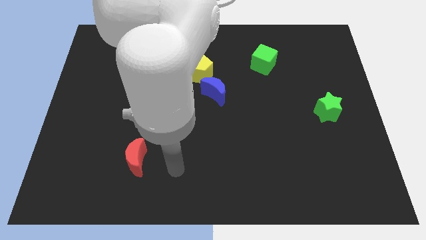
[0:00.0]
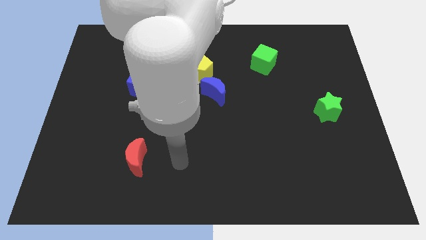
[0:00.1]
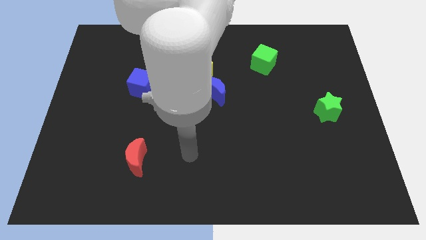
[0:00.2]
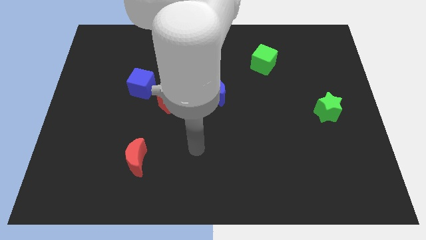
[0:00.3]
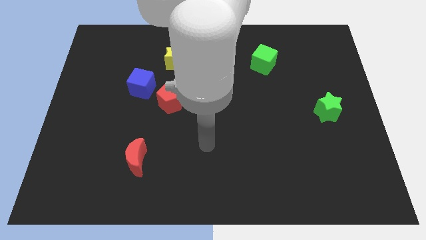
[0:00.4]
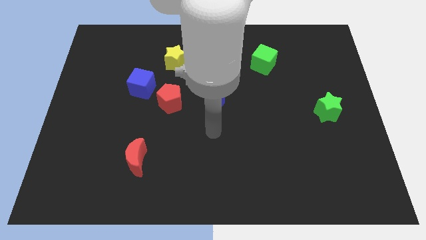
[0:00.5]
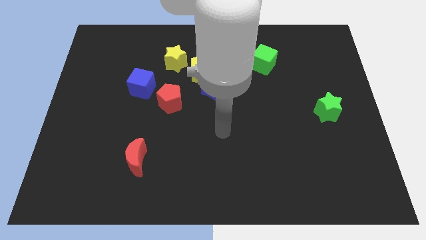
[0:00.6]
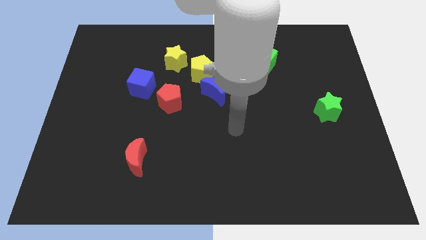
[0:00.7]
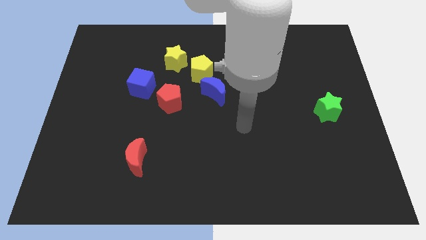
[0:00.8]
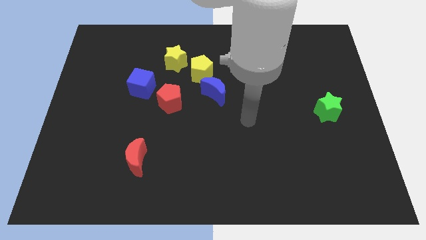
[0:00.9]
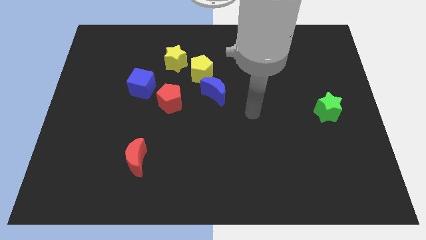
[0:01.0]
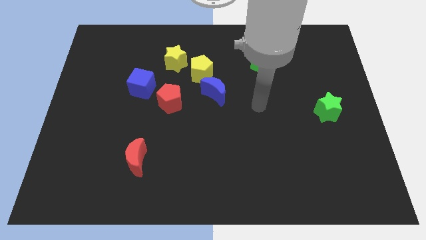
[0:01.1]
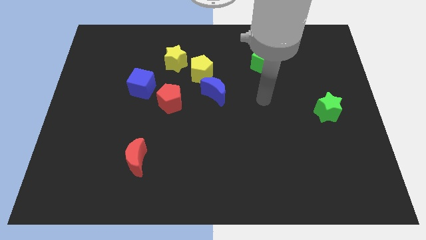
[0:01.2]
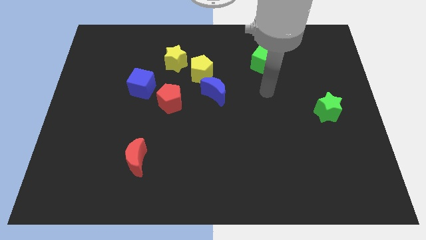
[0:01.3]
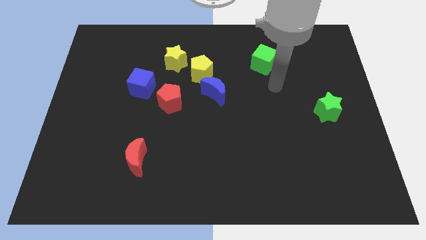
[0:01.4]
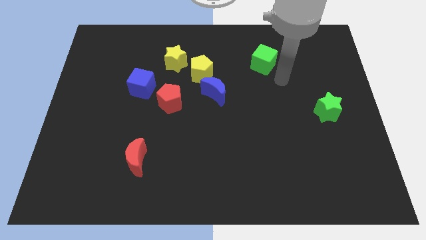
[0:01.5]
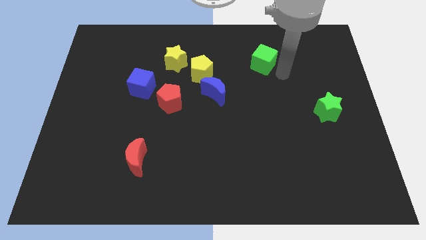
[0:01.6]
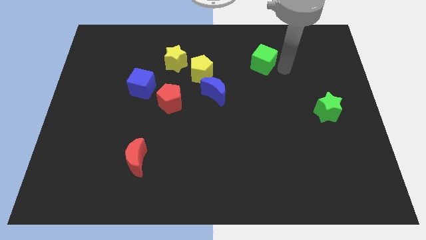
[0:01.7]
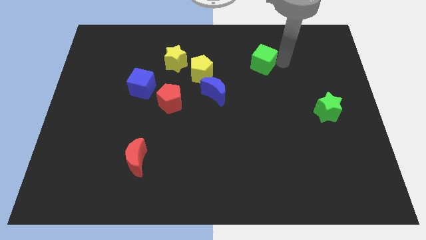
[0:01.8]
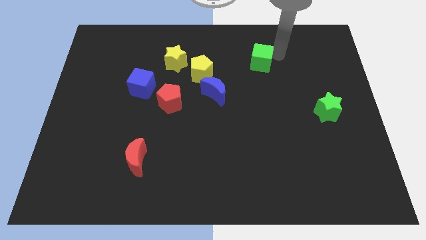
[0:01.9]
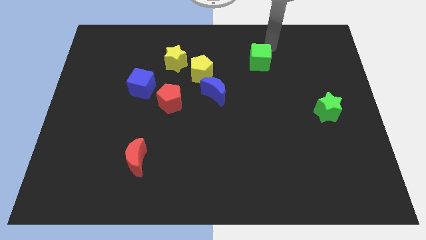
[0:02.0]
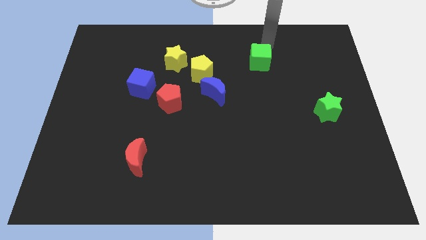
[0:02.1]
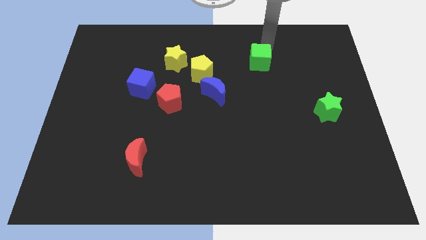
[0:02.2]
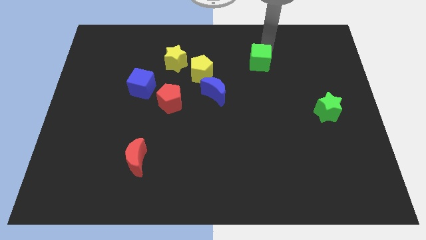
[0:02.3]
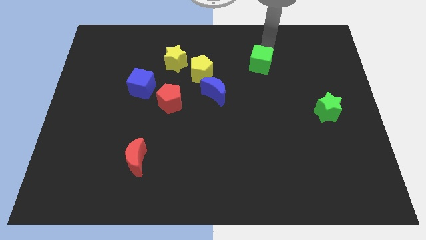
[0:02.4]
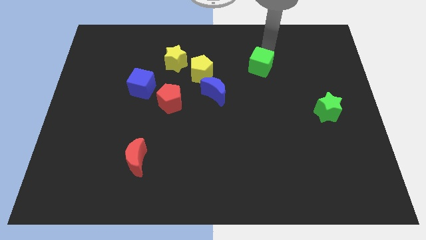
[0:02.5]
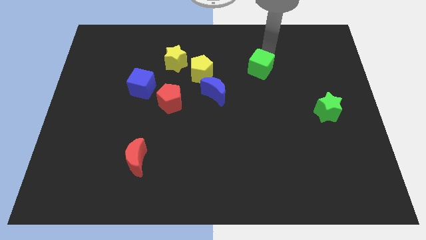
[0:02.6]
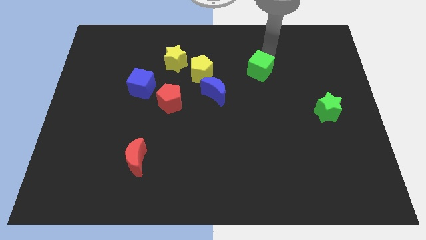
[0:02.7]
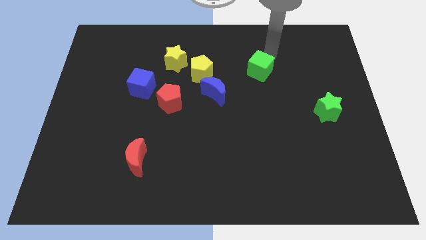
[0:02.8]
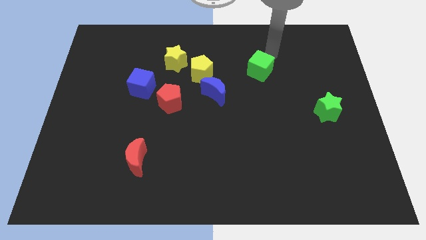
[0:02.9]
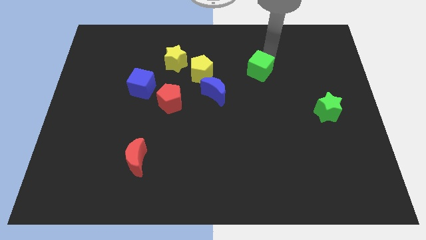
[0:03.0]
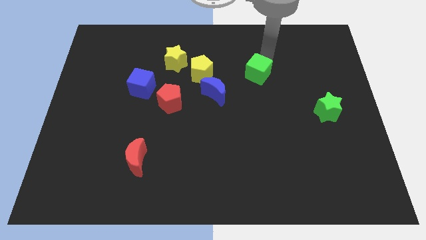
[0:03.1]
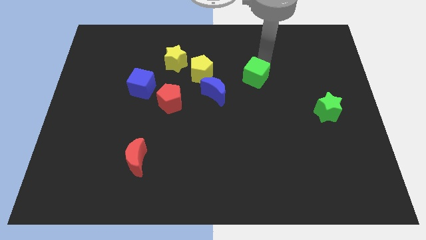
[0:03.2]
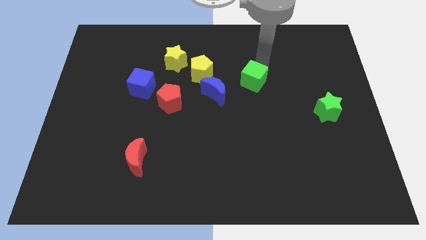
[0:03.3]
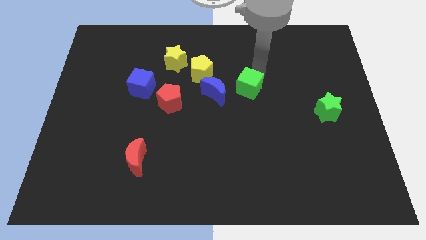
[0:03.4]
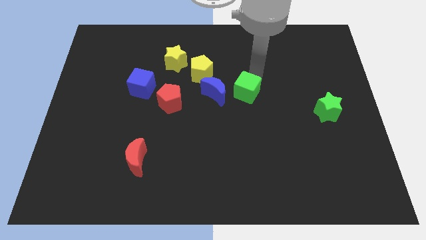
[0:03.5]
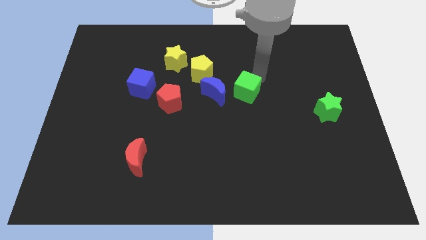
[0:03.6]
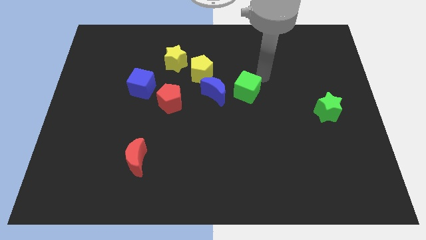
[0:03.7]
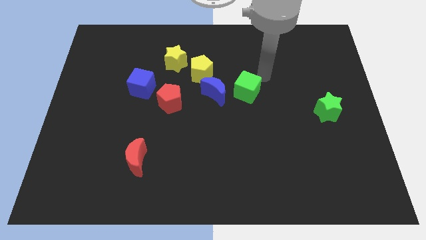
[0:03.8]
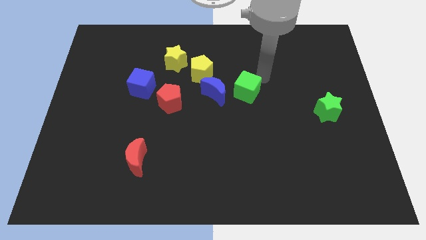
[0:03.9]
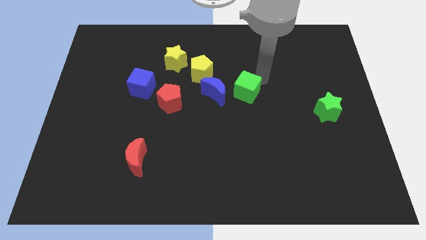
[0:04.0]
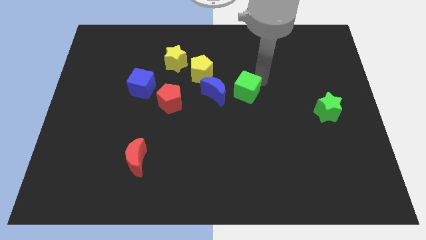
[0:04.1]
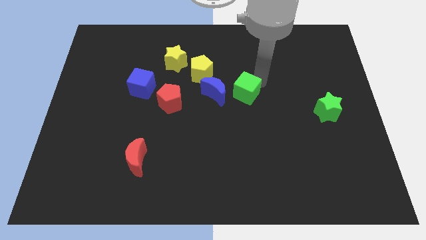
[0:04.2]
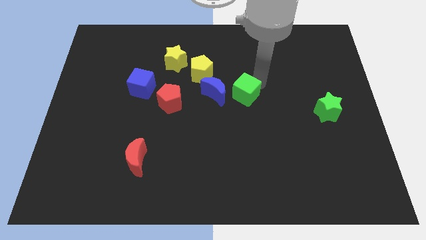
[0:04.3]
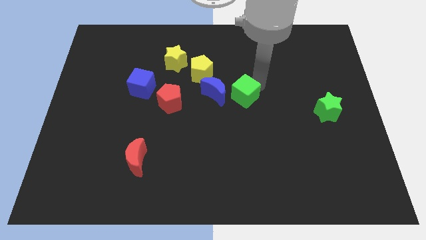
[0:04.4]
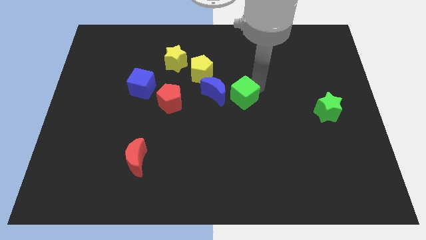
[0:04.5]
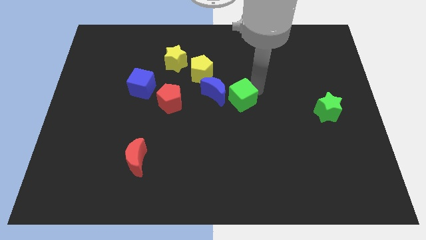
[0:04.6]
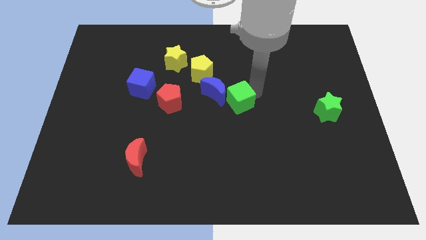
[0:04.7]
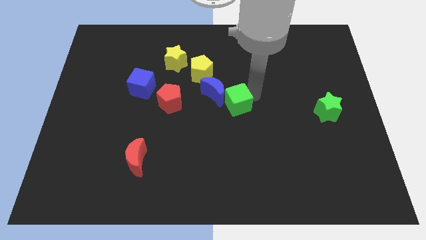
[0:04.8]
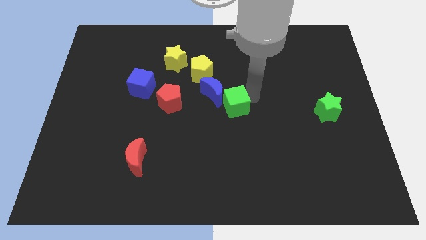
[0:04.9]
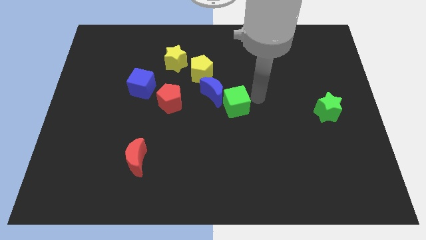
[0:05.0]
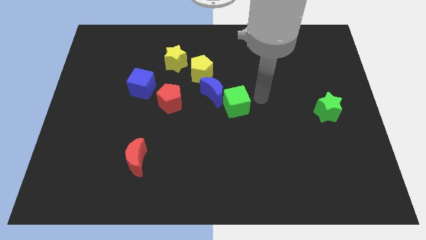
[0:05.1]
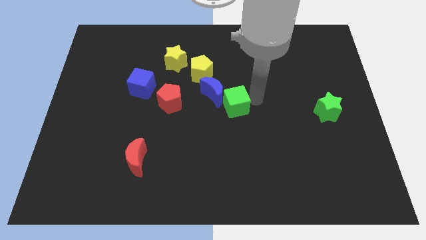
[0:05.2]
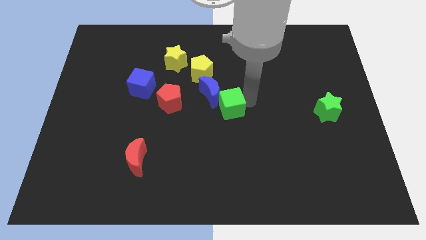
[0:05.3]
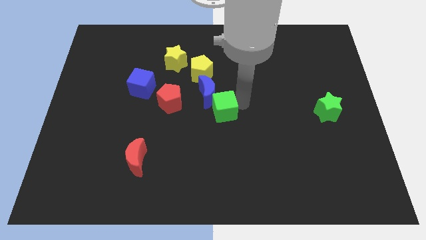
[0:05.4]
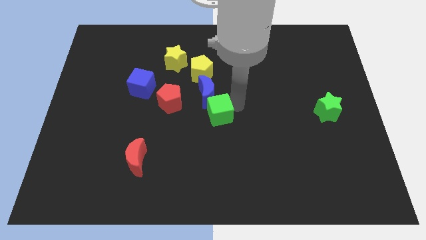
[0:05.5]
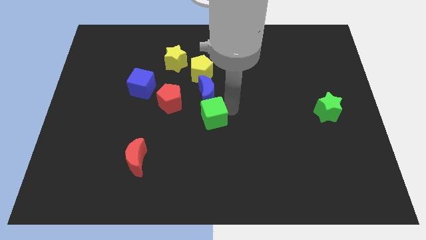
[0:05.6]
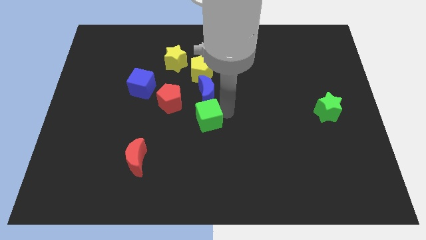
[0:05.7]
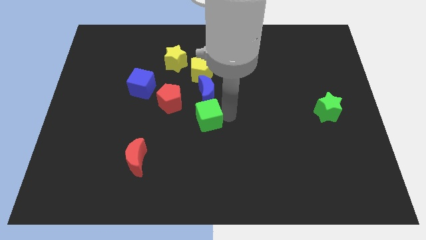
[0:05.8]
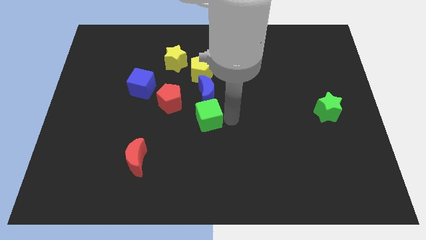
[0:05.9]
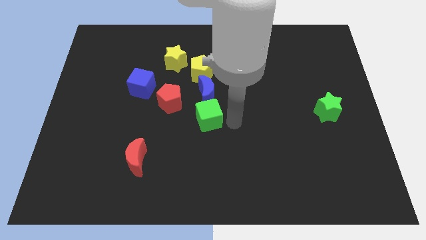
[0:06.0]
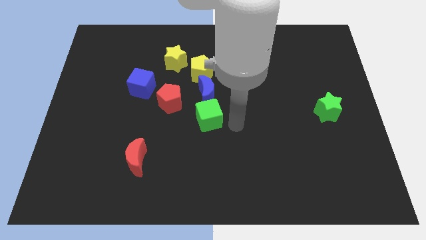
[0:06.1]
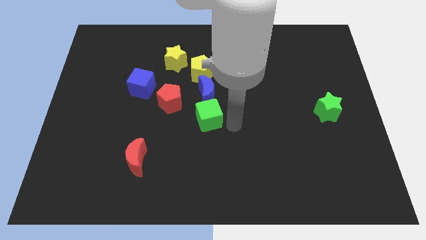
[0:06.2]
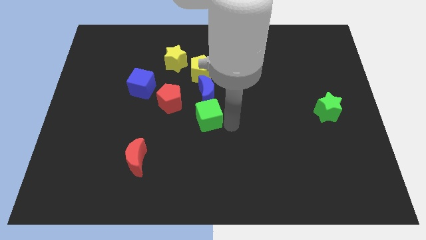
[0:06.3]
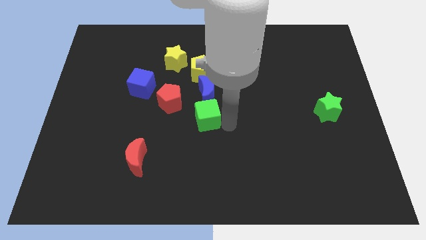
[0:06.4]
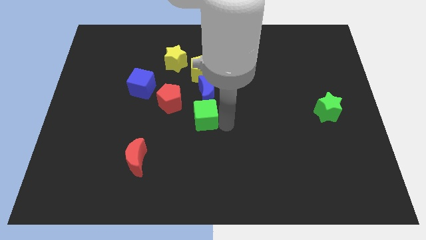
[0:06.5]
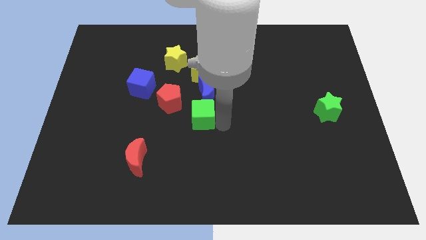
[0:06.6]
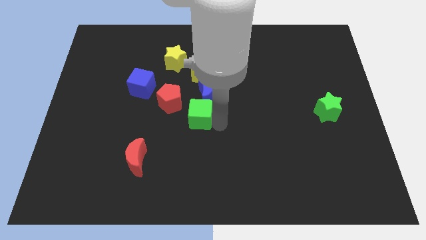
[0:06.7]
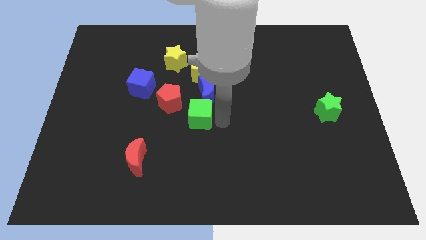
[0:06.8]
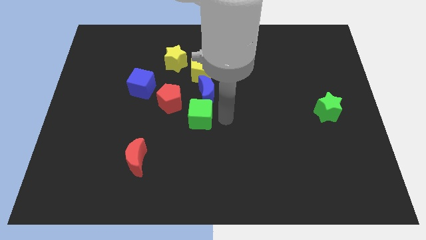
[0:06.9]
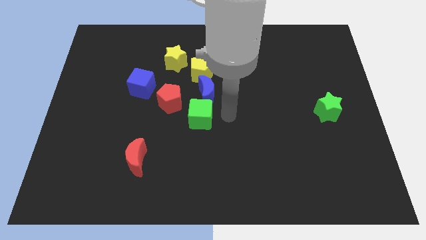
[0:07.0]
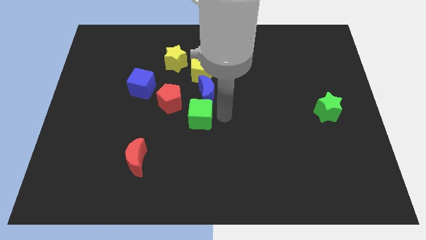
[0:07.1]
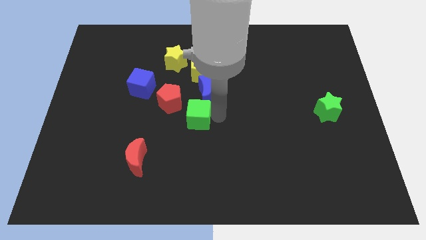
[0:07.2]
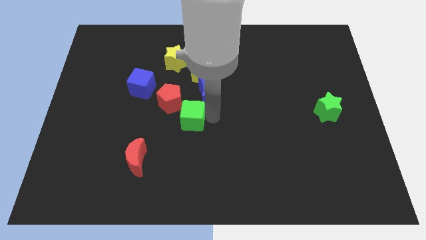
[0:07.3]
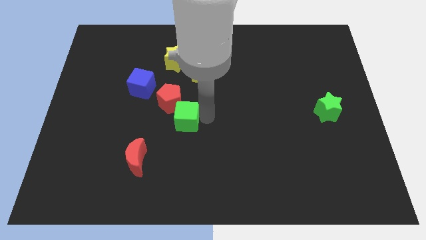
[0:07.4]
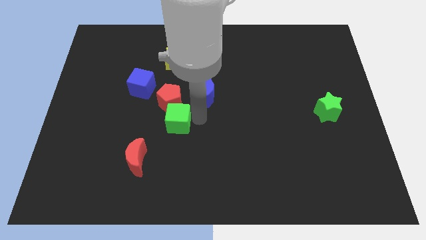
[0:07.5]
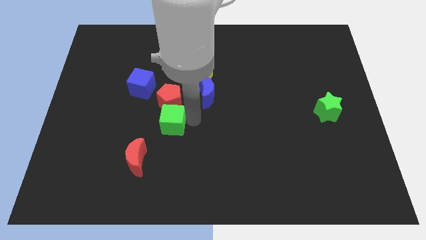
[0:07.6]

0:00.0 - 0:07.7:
move the green cube to the bottom left of the red pentagon

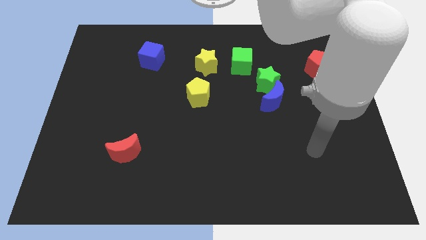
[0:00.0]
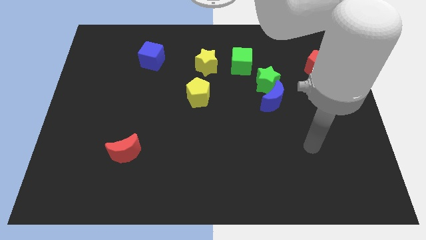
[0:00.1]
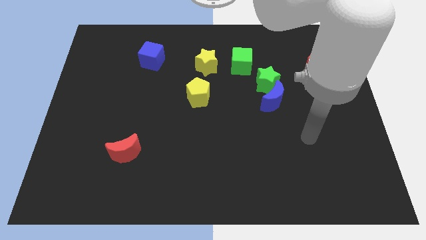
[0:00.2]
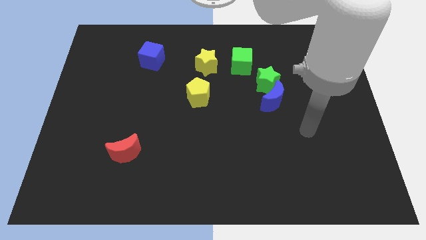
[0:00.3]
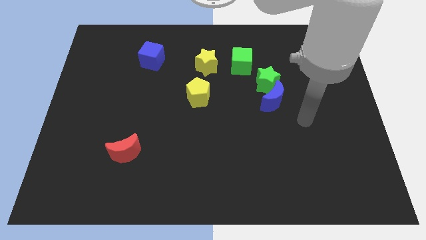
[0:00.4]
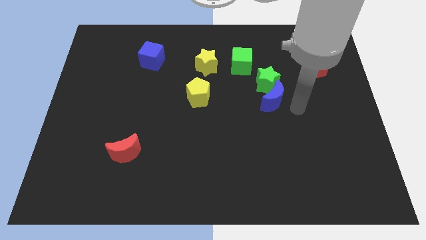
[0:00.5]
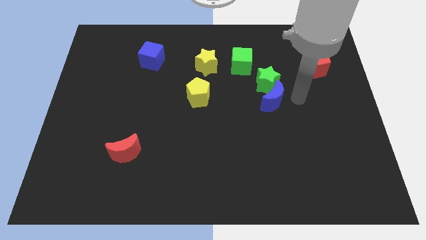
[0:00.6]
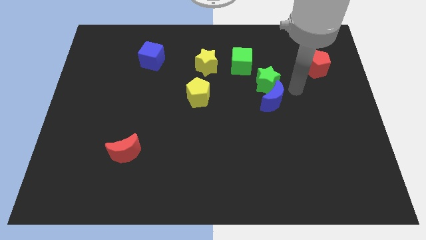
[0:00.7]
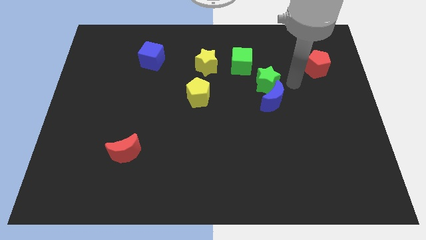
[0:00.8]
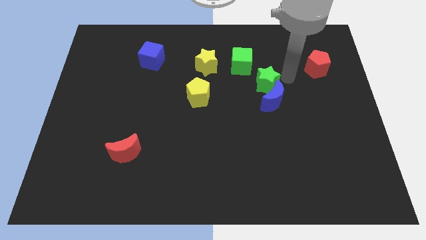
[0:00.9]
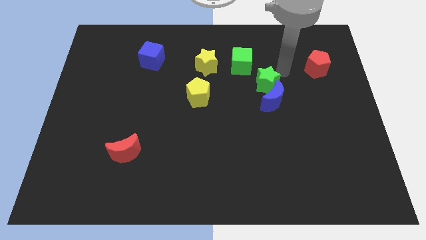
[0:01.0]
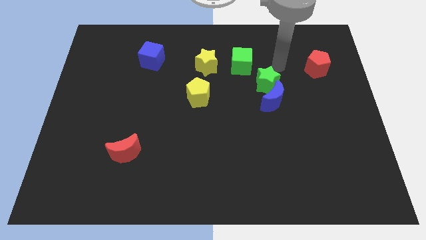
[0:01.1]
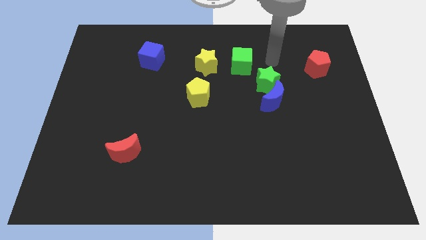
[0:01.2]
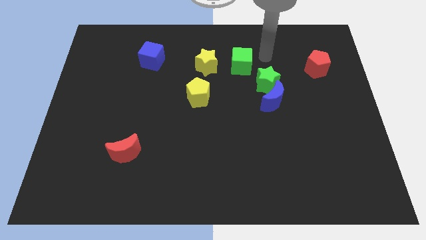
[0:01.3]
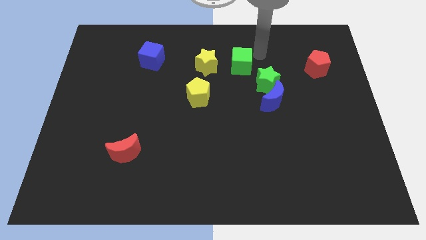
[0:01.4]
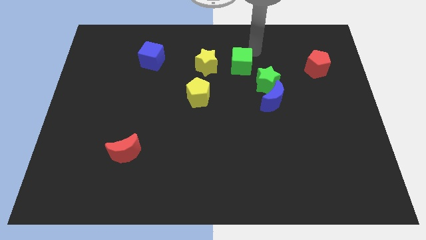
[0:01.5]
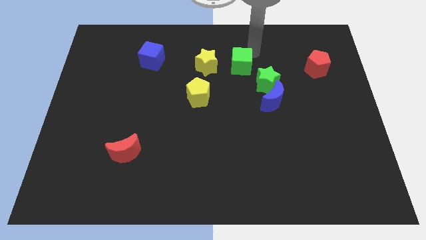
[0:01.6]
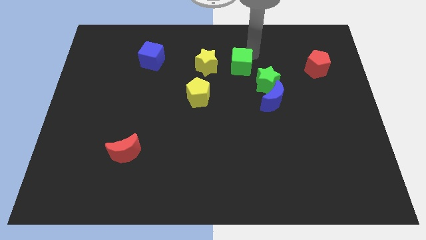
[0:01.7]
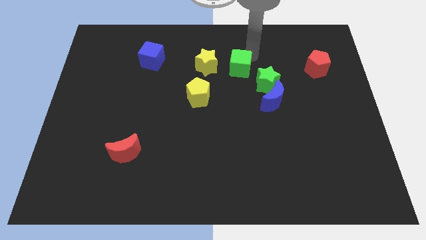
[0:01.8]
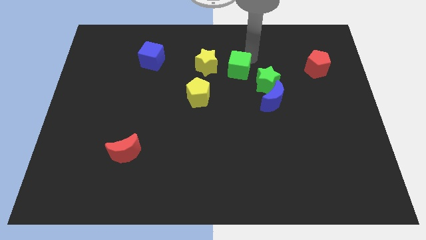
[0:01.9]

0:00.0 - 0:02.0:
slide the green cube just left of the green star
